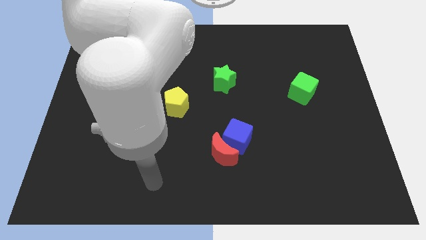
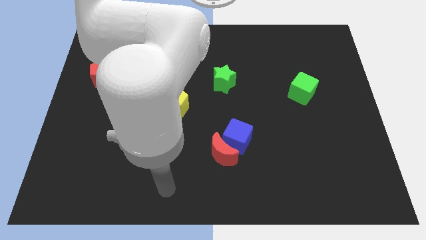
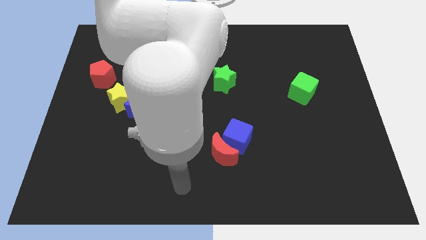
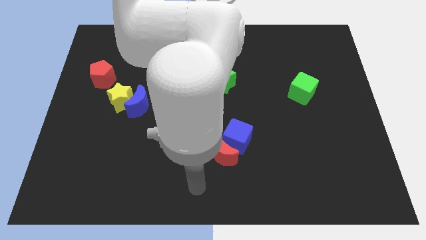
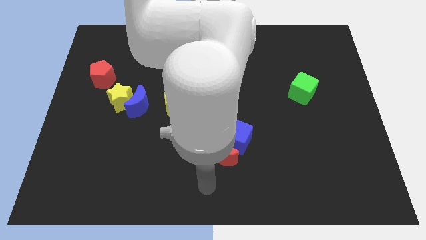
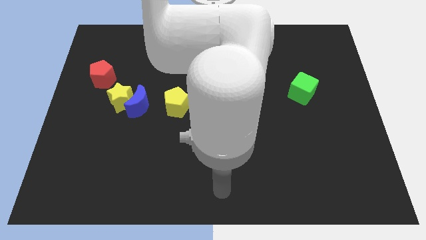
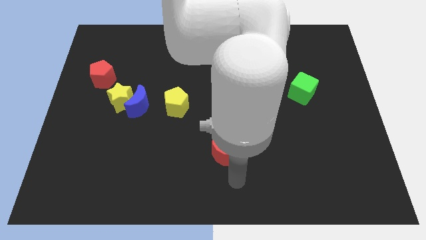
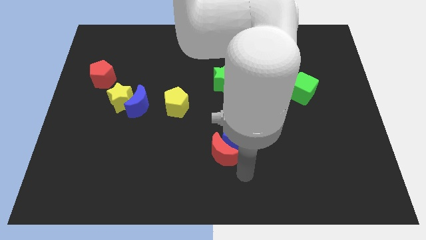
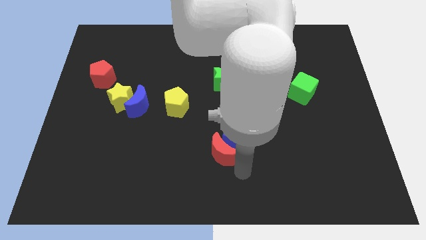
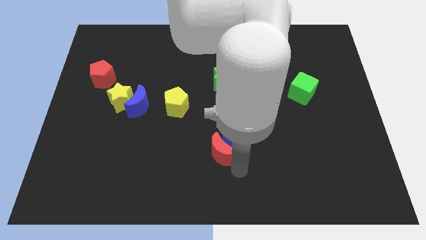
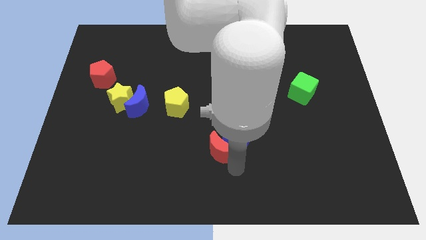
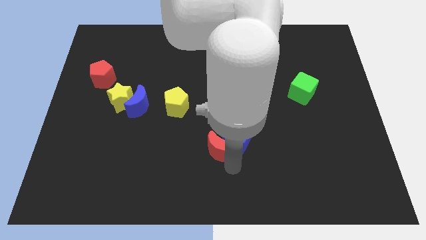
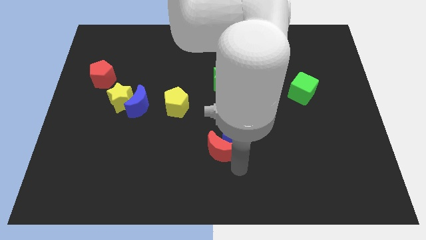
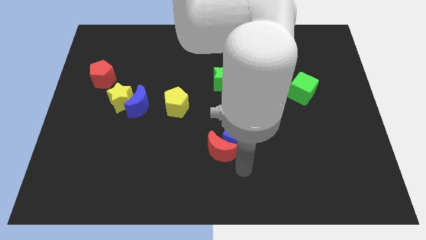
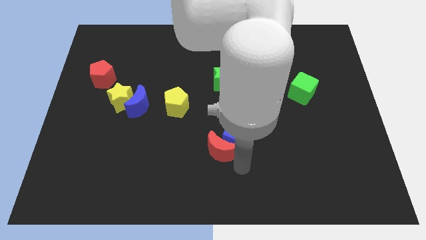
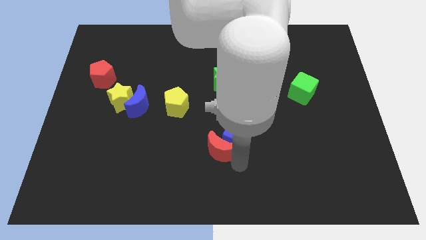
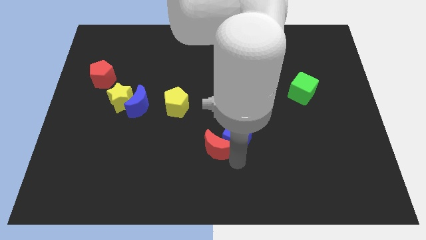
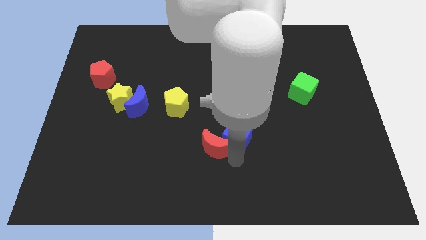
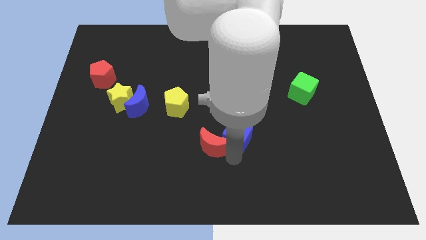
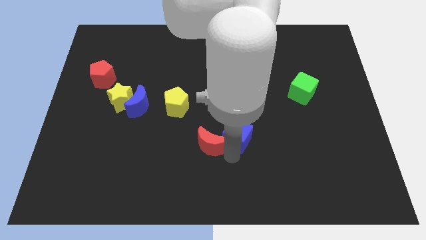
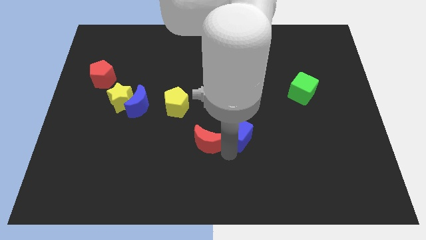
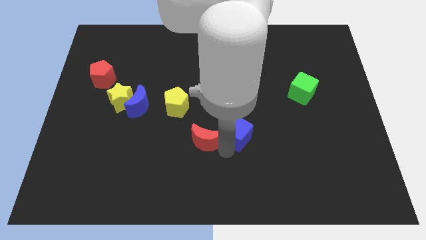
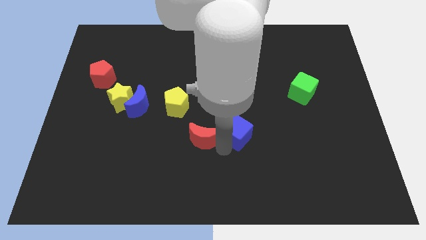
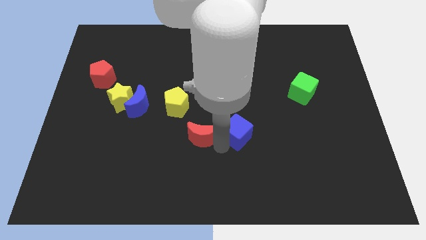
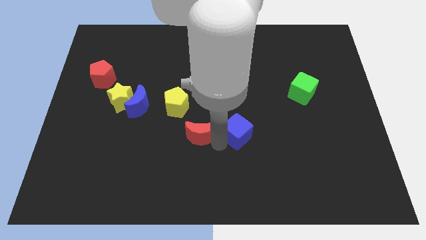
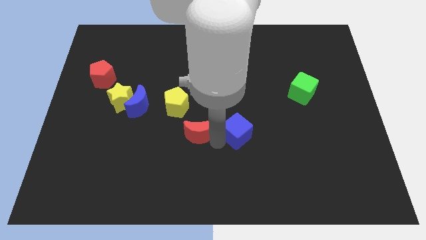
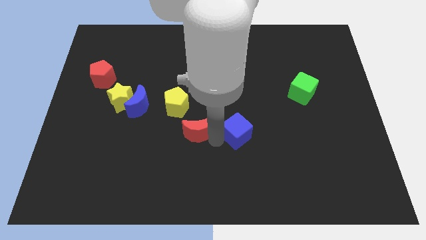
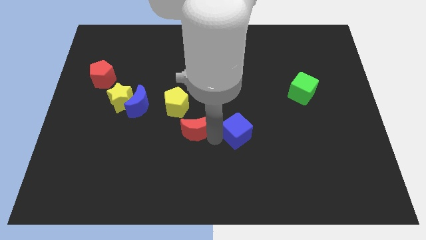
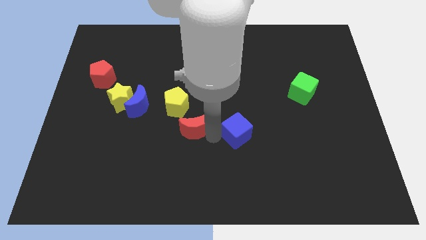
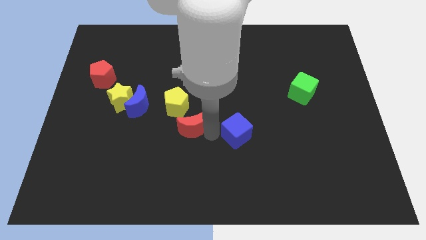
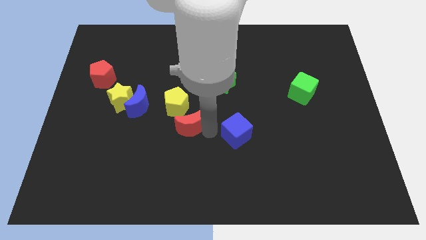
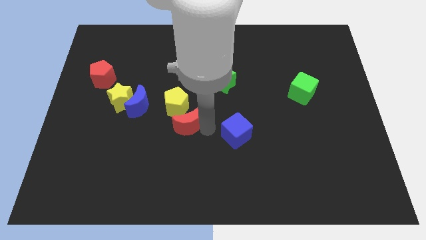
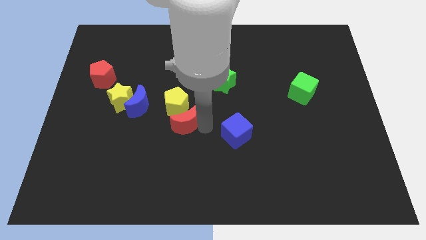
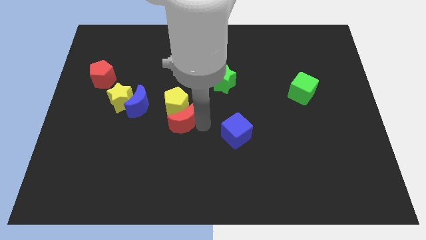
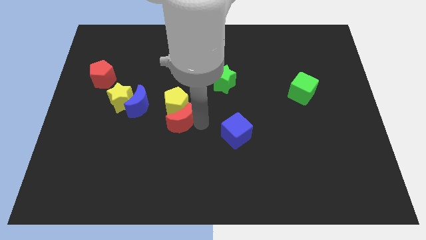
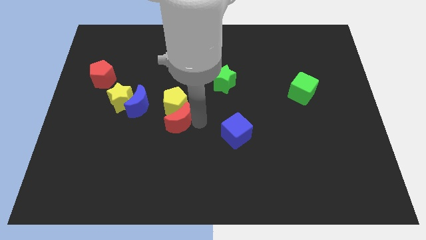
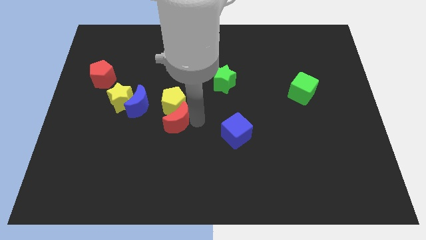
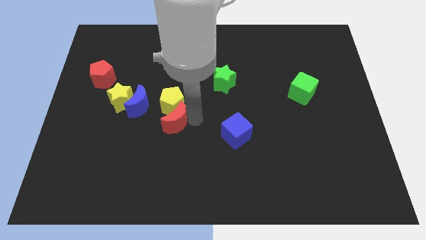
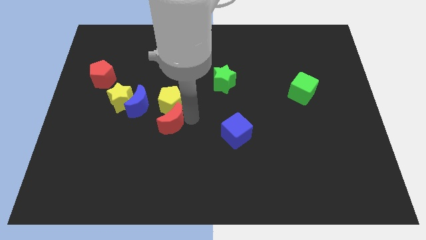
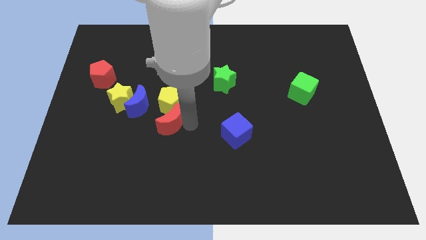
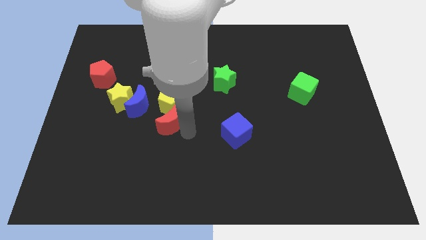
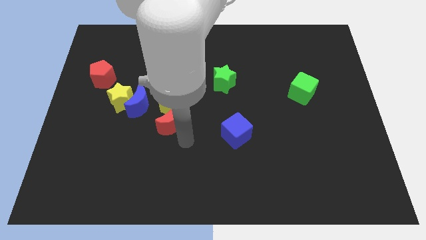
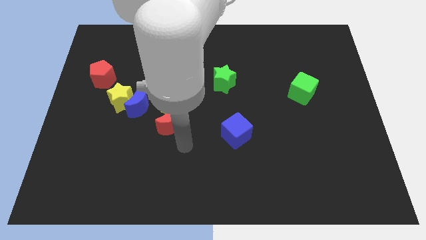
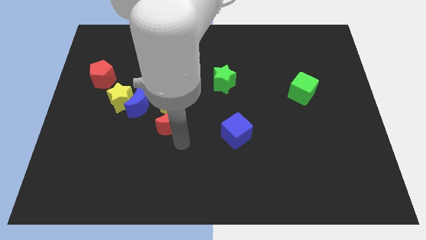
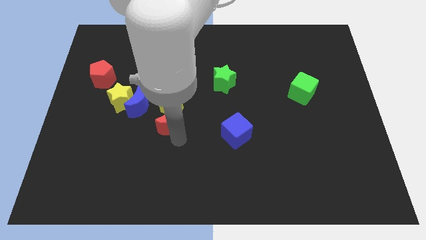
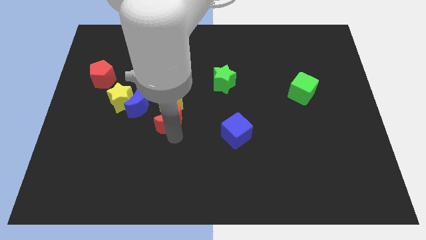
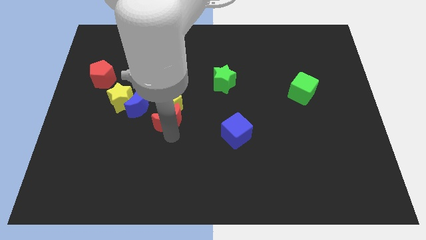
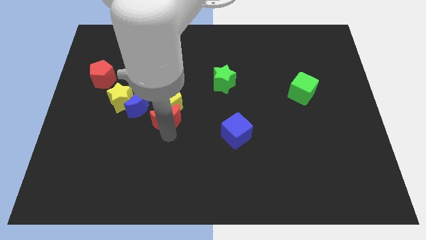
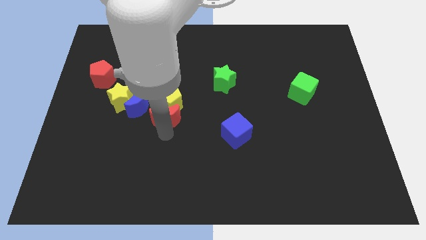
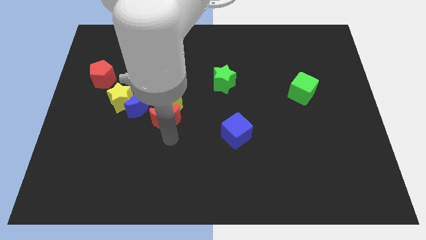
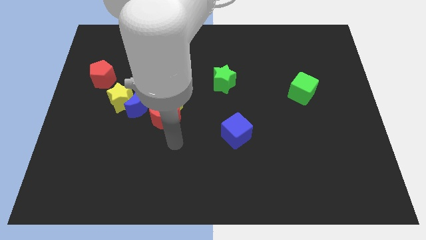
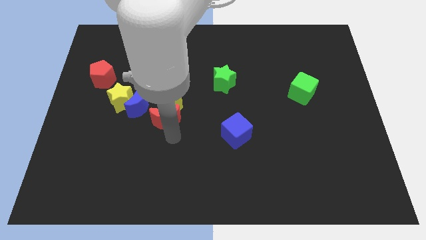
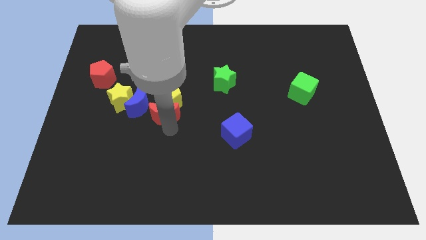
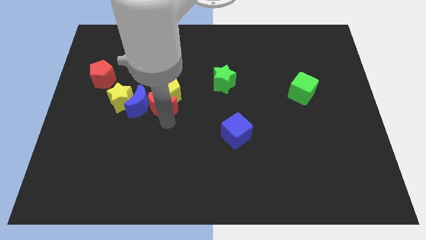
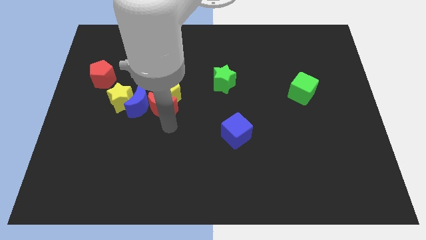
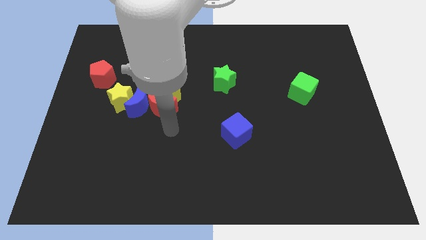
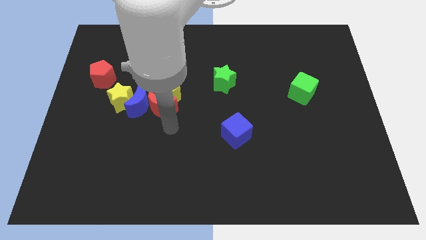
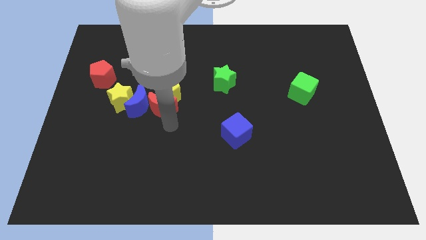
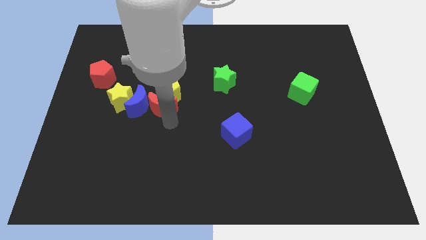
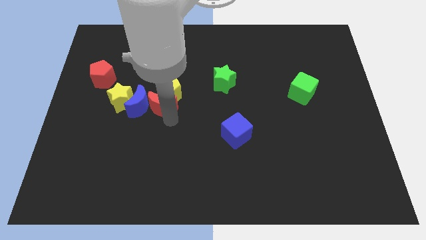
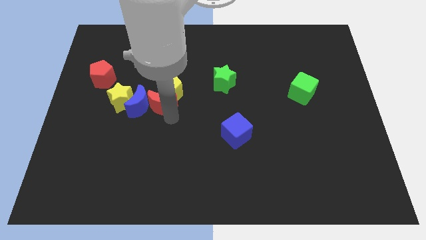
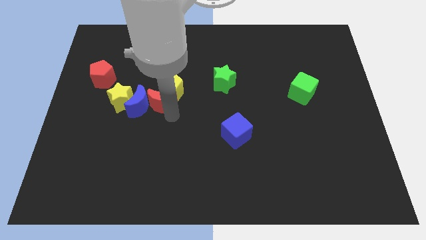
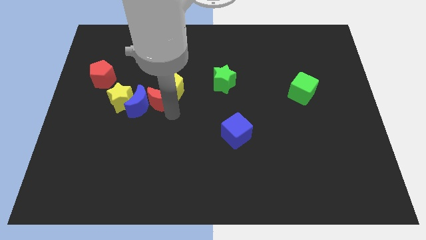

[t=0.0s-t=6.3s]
push the red moon upwards and left diagonally

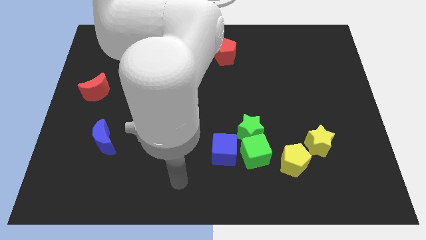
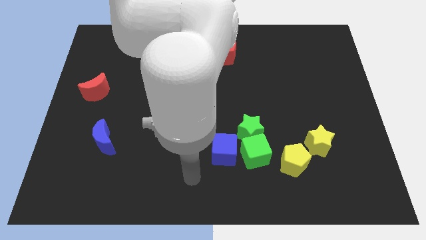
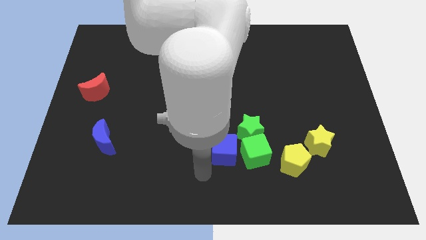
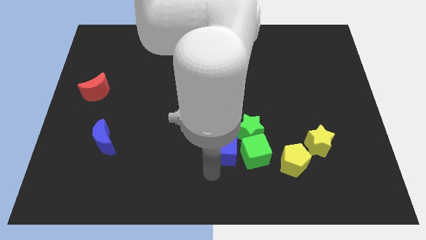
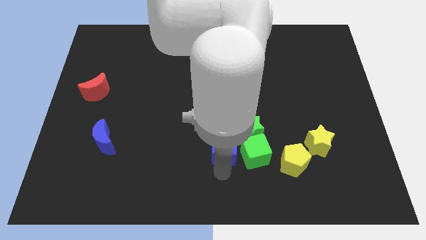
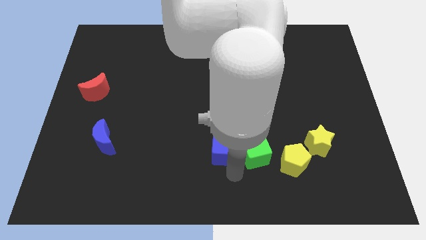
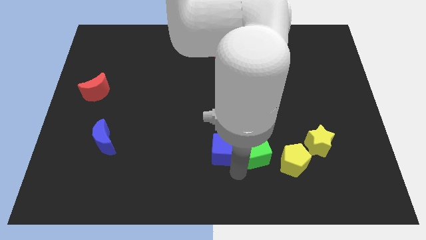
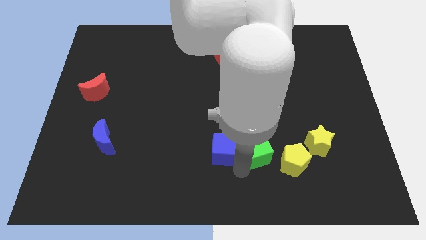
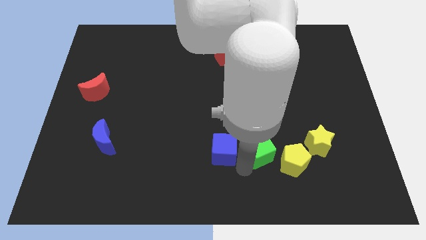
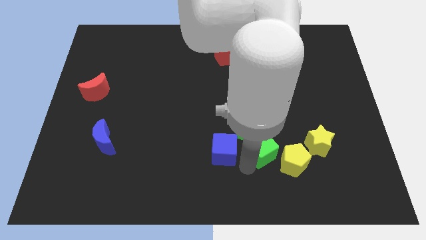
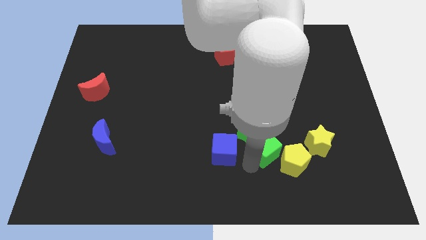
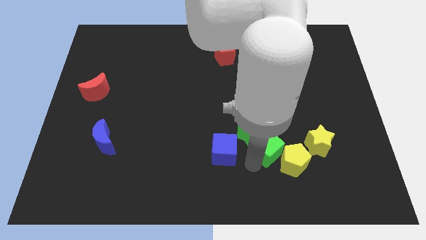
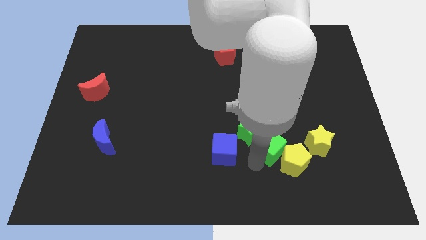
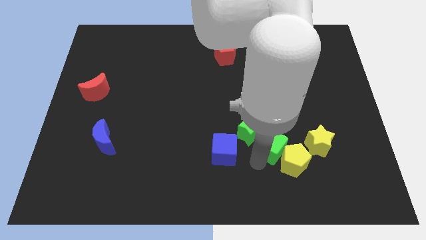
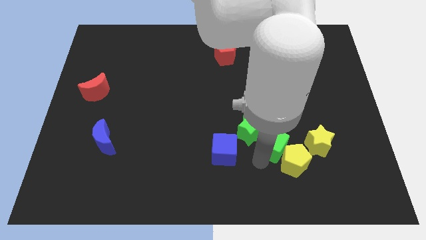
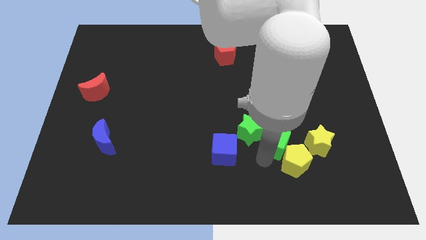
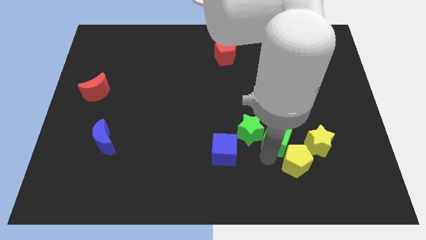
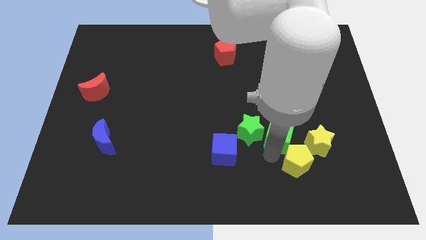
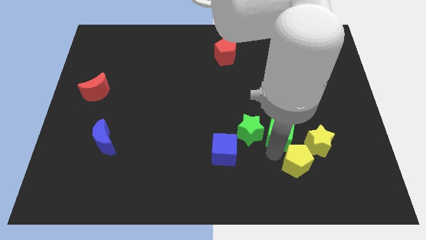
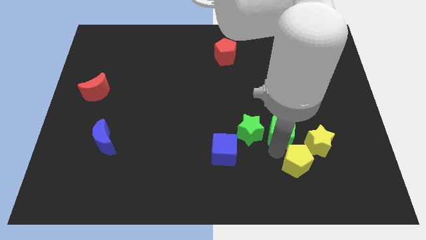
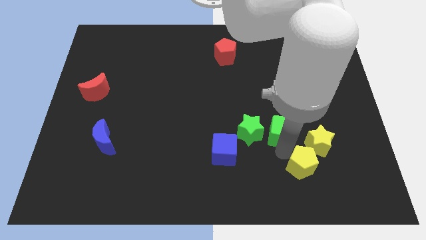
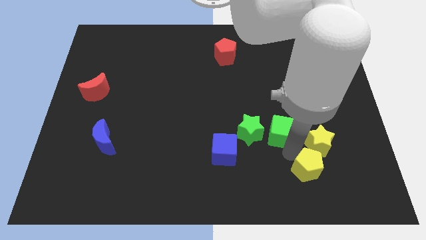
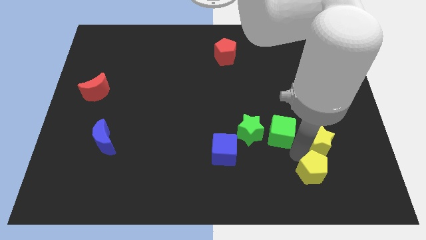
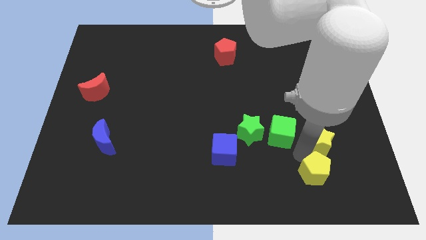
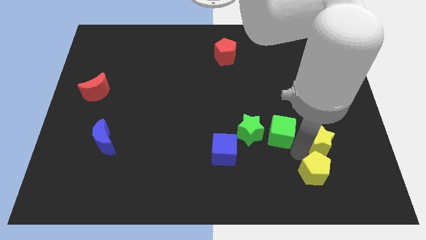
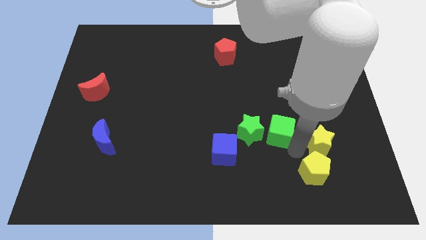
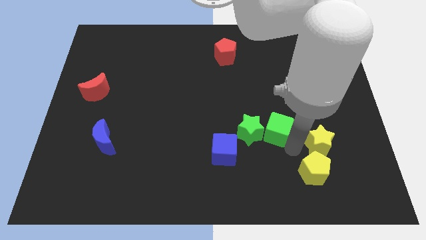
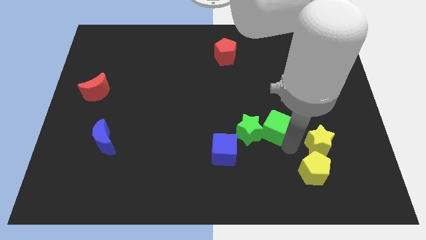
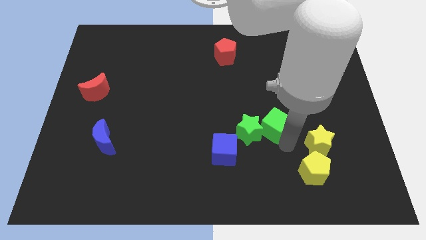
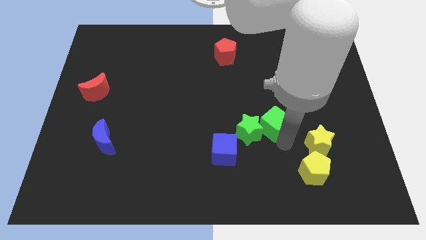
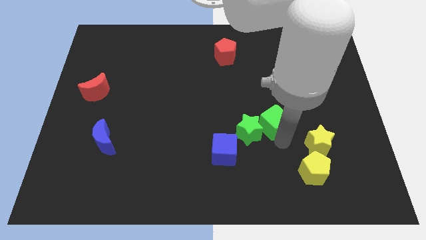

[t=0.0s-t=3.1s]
push the green cube a little up
